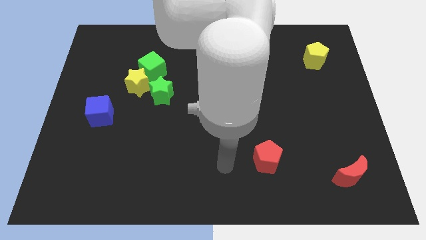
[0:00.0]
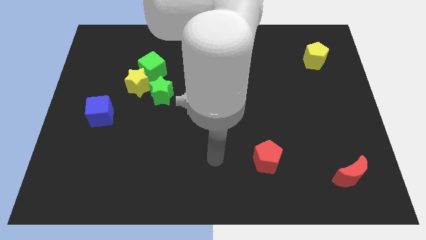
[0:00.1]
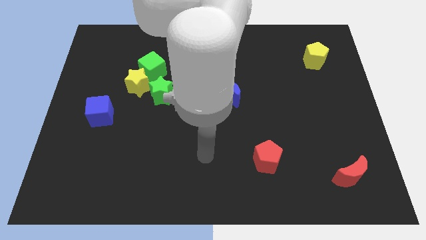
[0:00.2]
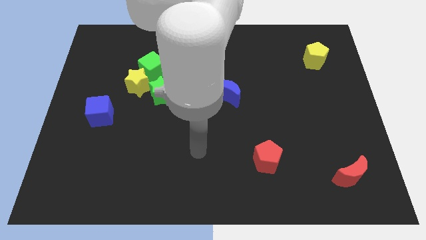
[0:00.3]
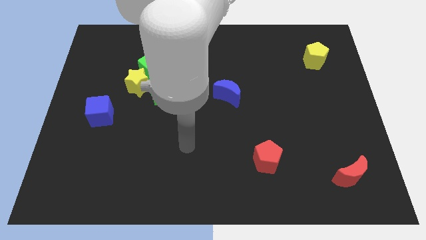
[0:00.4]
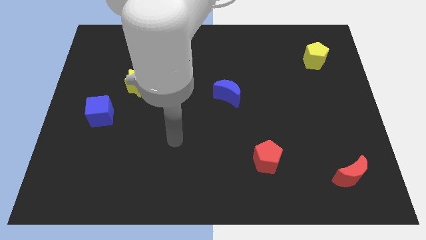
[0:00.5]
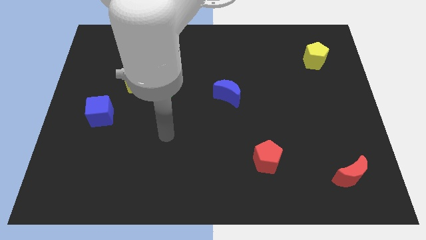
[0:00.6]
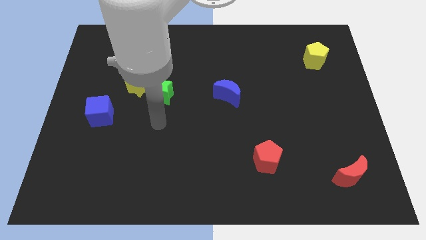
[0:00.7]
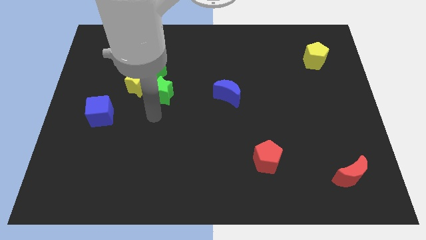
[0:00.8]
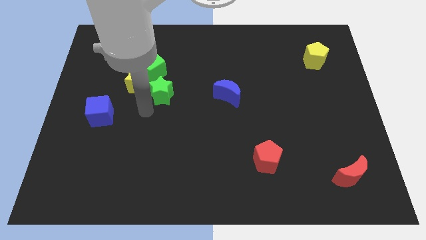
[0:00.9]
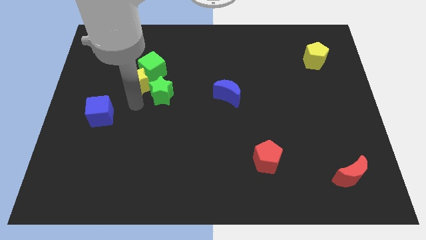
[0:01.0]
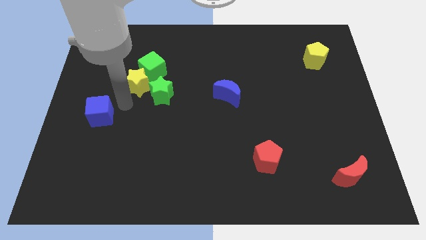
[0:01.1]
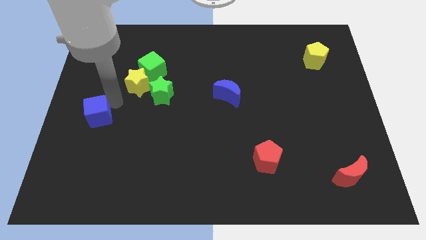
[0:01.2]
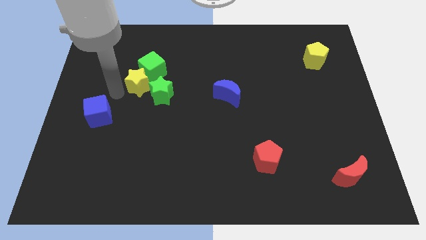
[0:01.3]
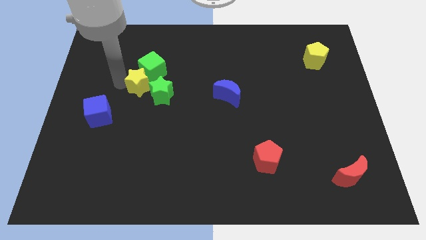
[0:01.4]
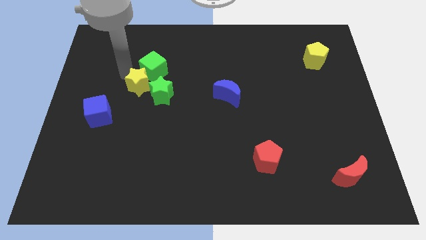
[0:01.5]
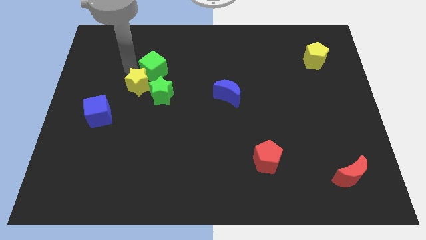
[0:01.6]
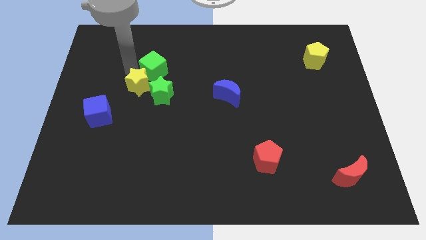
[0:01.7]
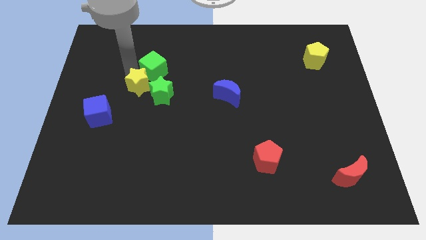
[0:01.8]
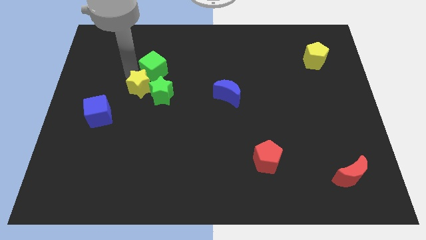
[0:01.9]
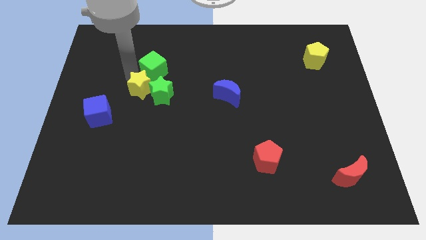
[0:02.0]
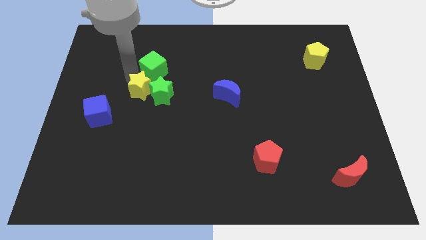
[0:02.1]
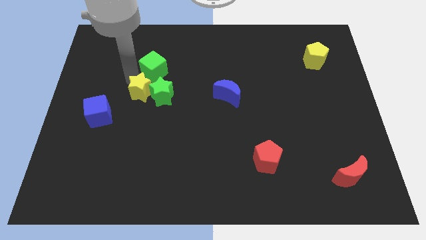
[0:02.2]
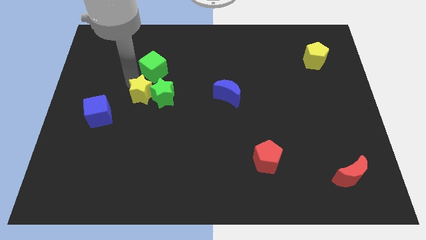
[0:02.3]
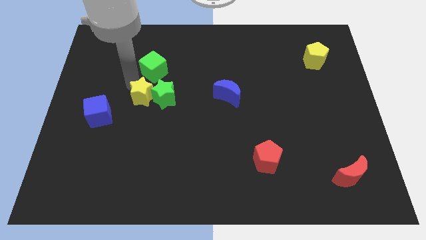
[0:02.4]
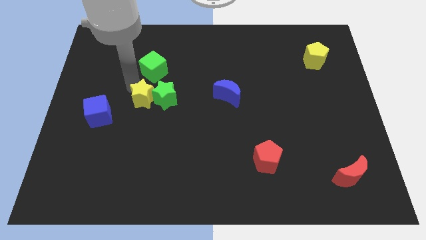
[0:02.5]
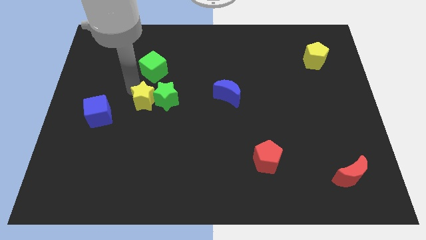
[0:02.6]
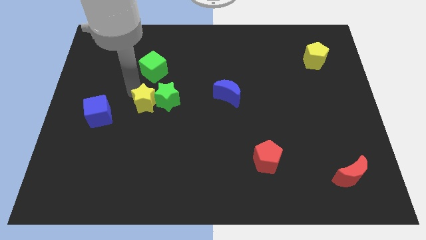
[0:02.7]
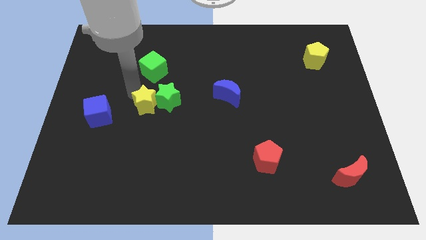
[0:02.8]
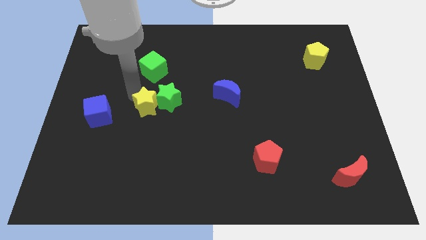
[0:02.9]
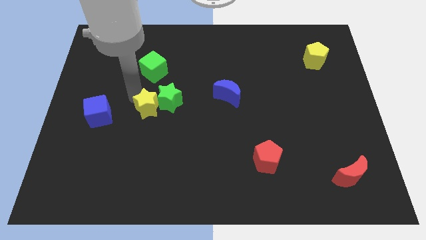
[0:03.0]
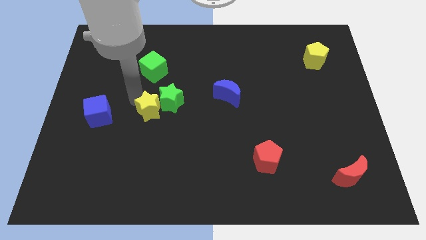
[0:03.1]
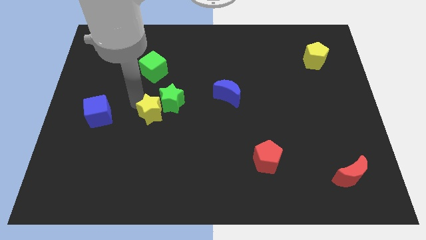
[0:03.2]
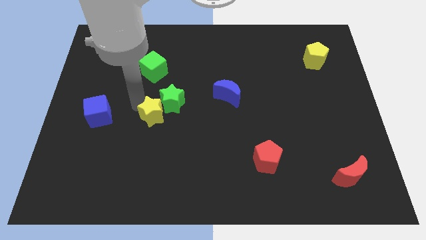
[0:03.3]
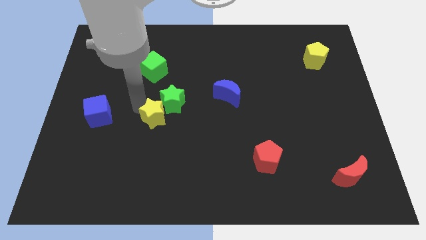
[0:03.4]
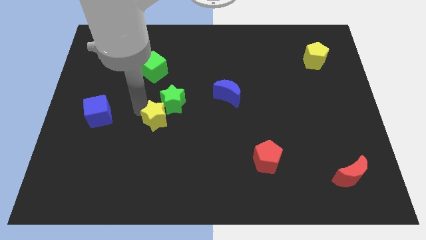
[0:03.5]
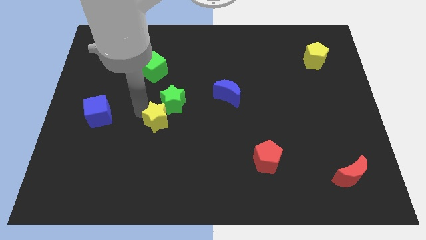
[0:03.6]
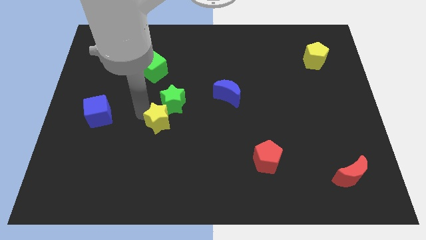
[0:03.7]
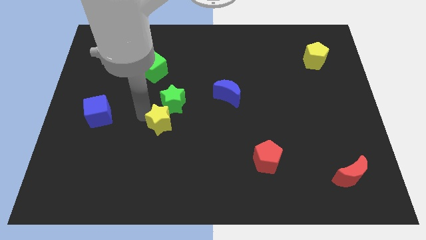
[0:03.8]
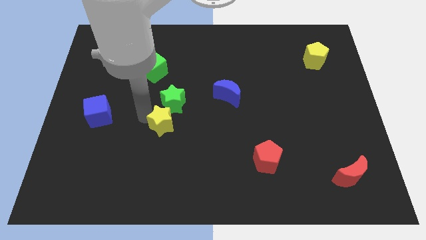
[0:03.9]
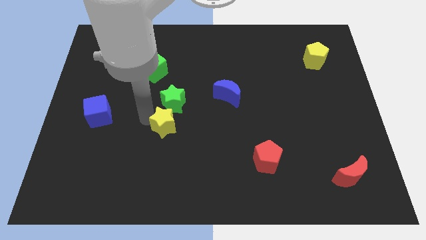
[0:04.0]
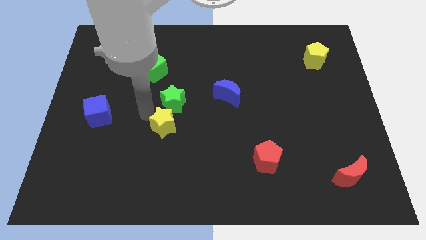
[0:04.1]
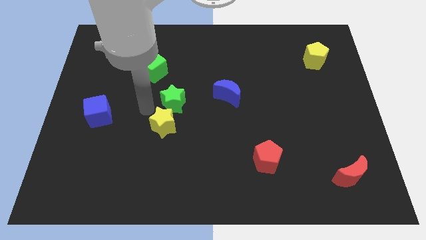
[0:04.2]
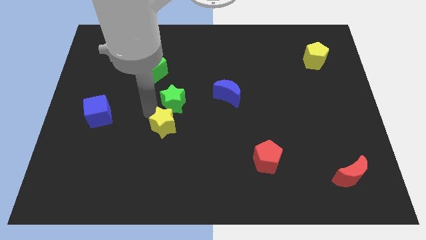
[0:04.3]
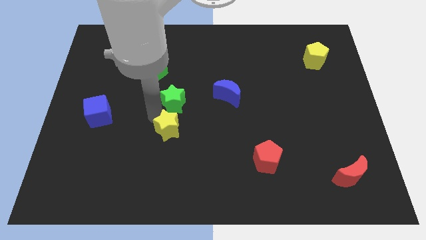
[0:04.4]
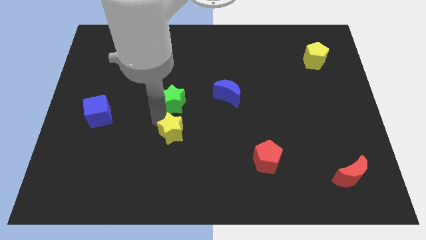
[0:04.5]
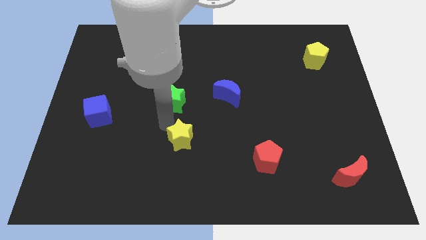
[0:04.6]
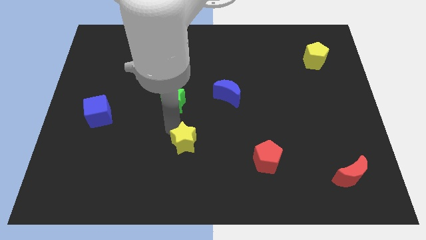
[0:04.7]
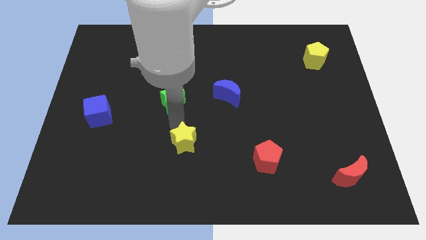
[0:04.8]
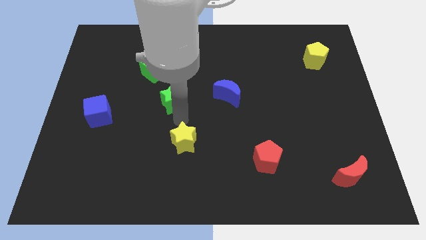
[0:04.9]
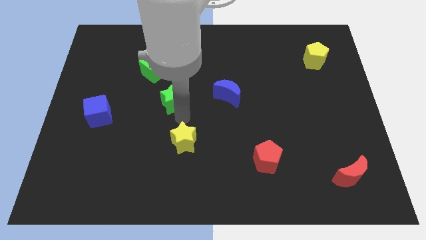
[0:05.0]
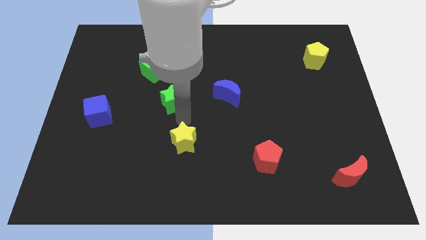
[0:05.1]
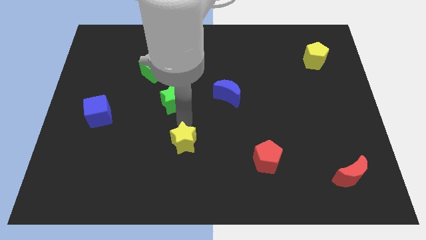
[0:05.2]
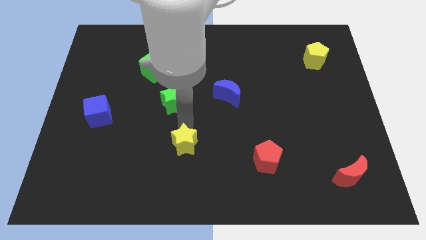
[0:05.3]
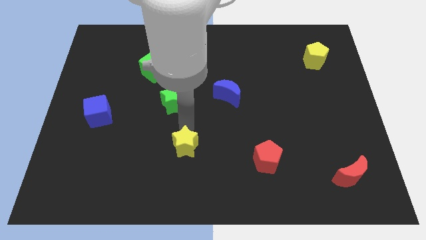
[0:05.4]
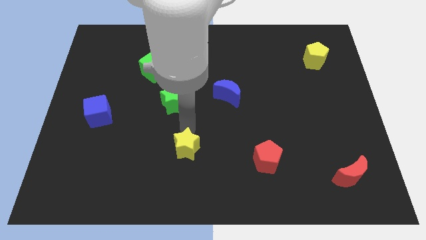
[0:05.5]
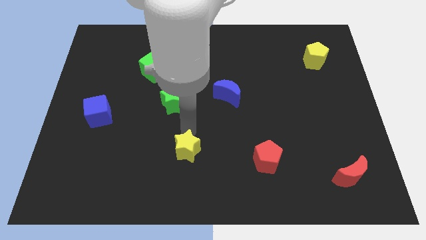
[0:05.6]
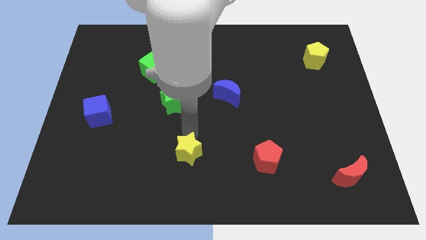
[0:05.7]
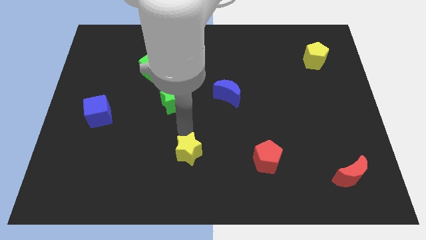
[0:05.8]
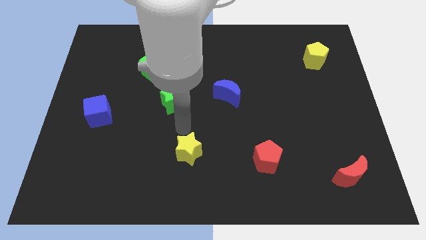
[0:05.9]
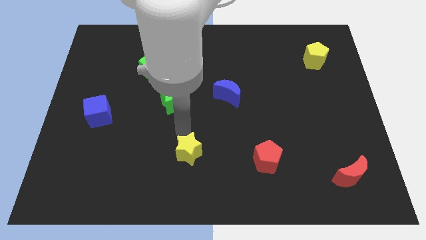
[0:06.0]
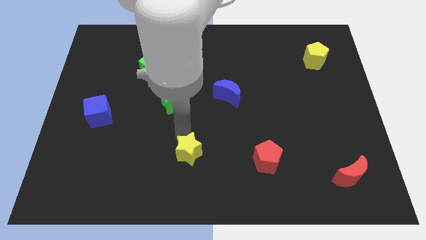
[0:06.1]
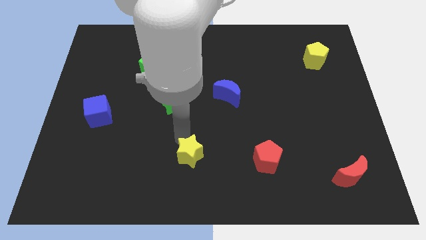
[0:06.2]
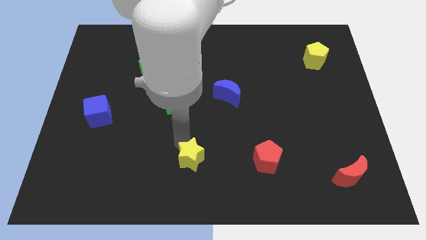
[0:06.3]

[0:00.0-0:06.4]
put the yellow star to the bottom

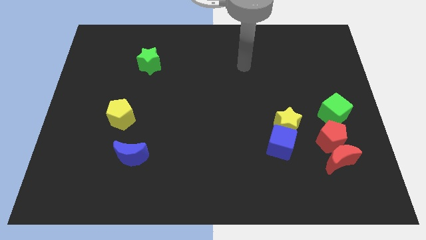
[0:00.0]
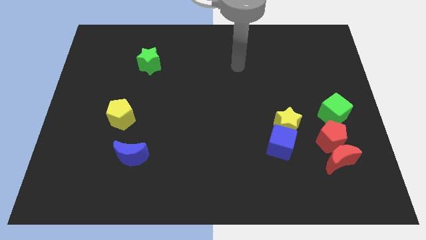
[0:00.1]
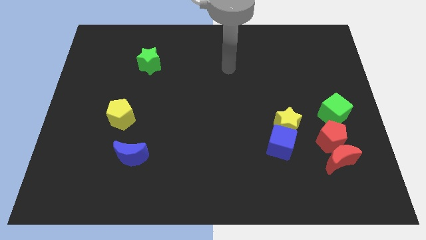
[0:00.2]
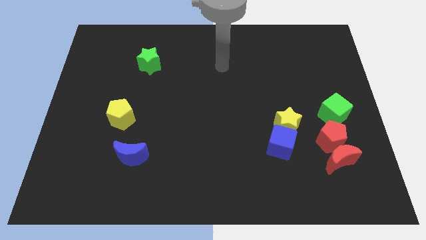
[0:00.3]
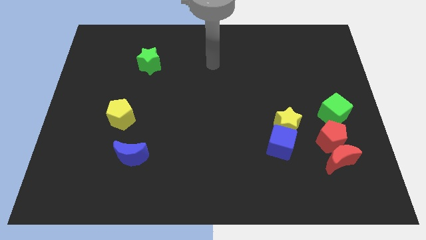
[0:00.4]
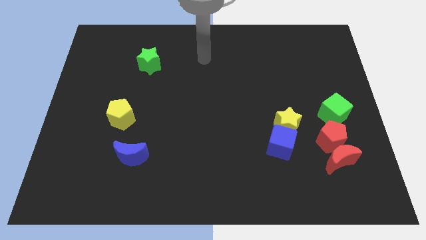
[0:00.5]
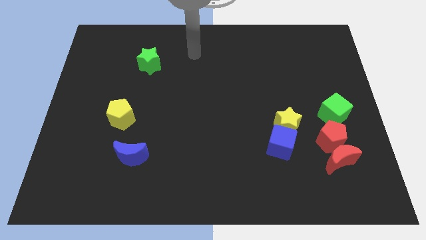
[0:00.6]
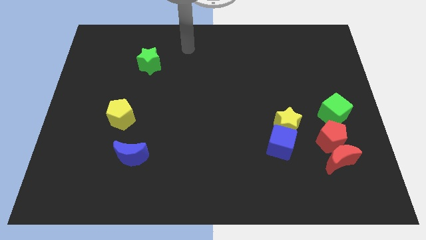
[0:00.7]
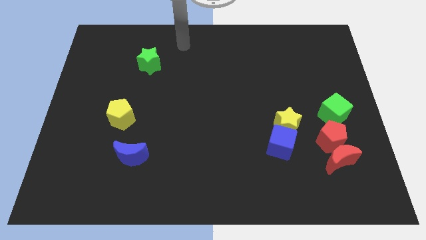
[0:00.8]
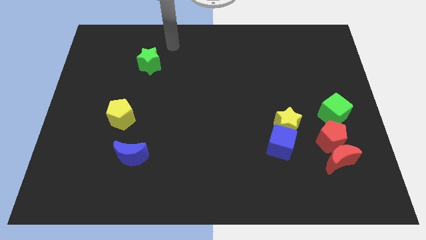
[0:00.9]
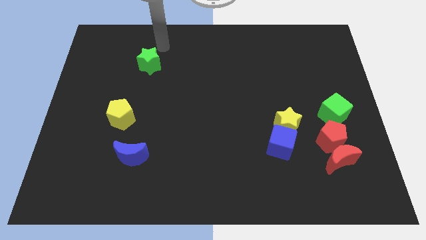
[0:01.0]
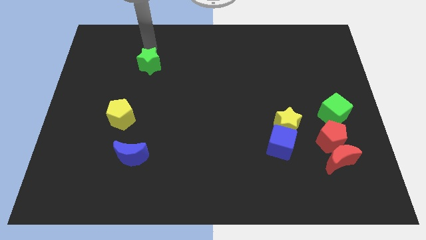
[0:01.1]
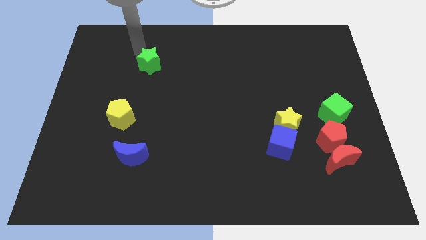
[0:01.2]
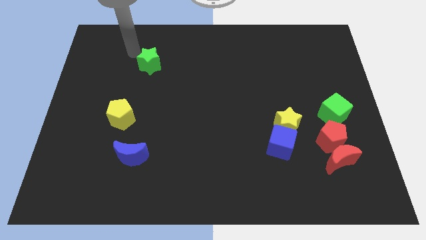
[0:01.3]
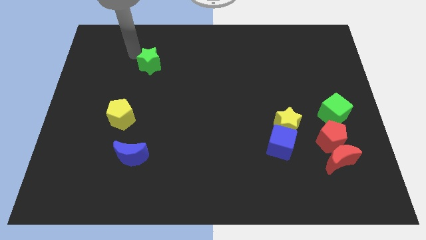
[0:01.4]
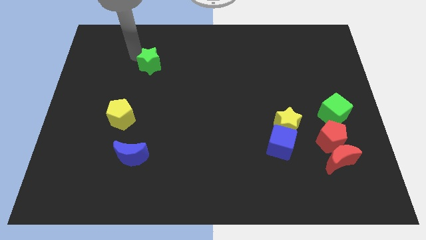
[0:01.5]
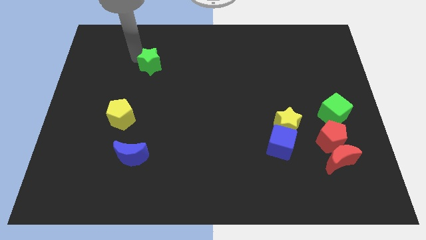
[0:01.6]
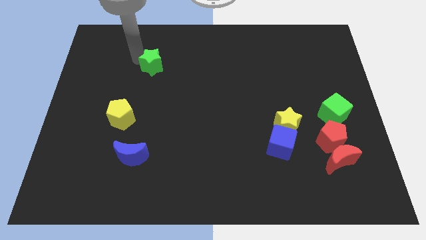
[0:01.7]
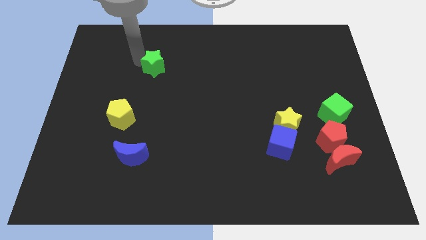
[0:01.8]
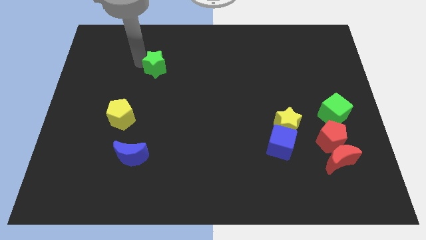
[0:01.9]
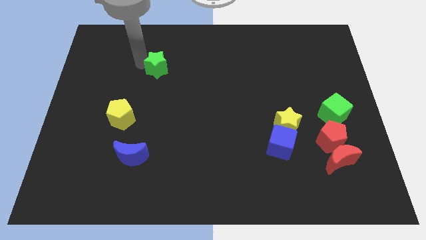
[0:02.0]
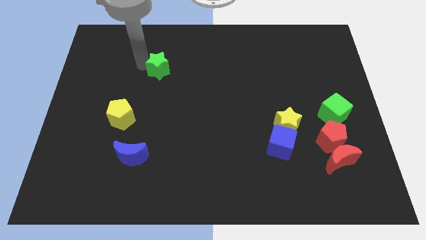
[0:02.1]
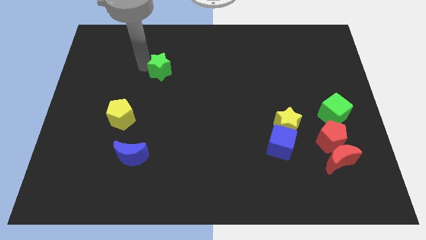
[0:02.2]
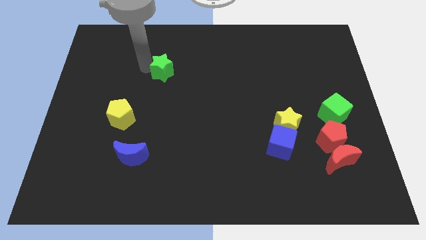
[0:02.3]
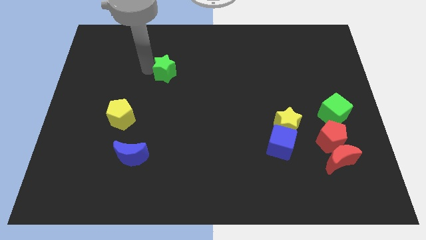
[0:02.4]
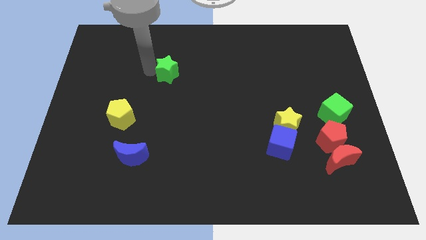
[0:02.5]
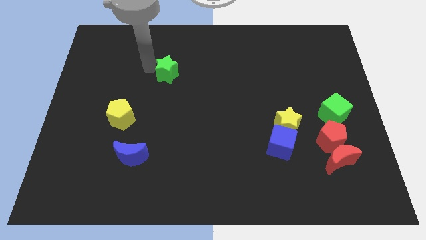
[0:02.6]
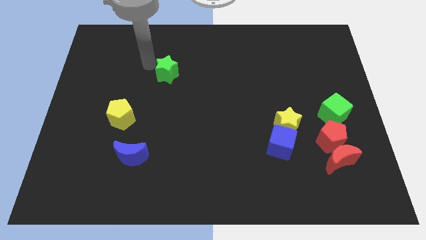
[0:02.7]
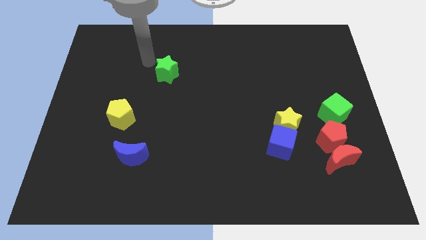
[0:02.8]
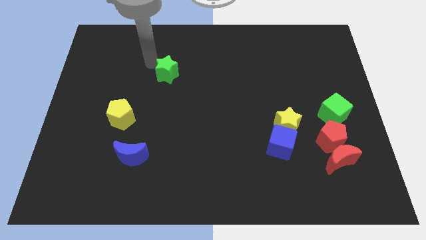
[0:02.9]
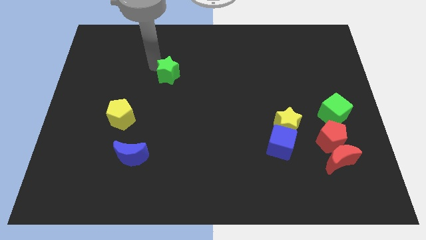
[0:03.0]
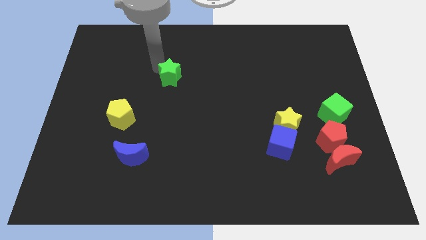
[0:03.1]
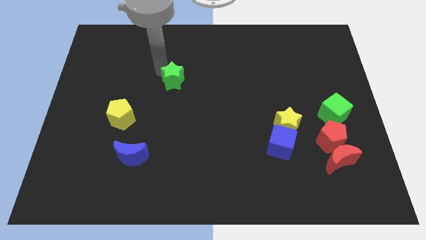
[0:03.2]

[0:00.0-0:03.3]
slide the green star to the middle
